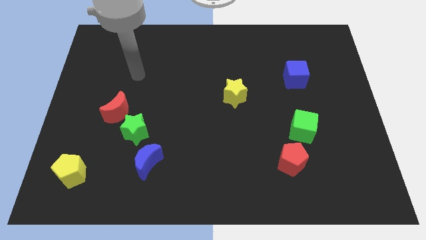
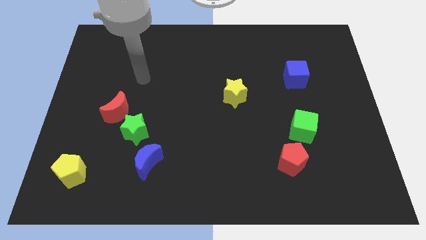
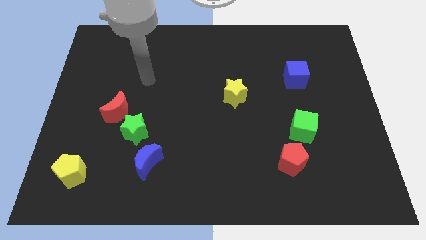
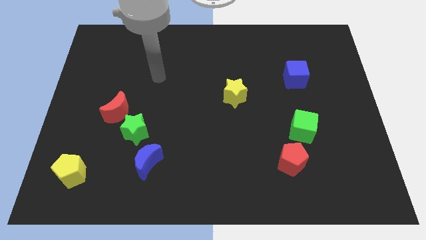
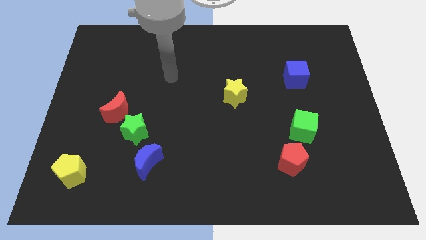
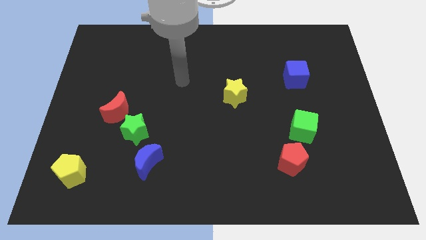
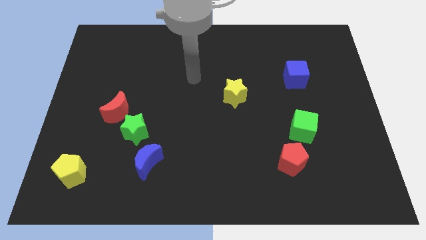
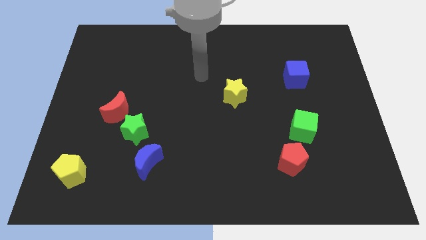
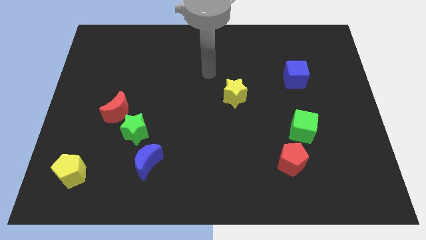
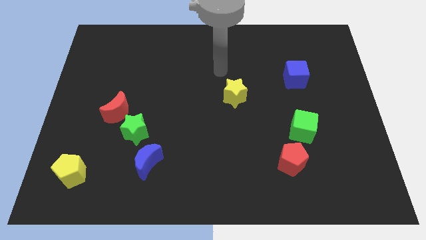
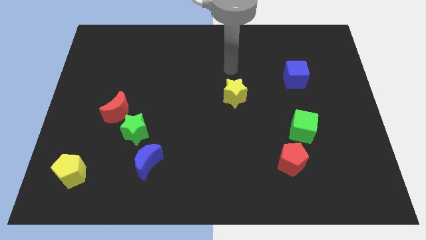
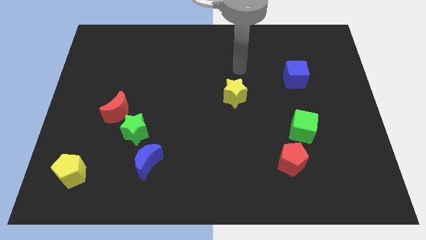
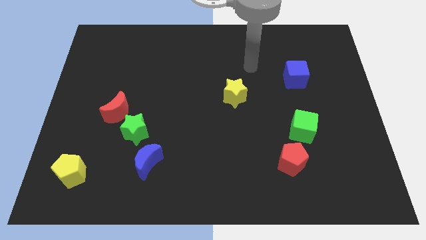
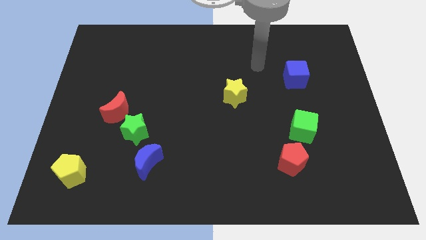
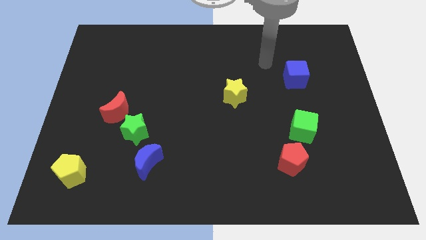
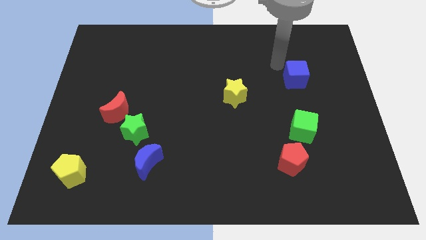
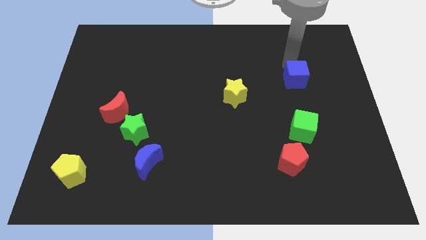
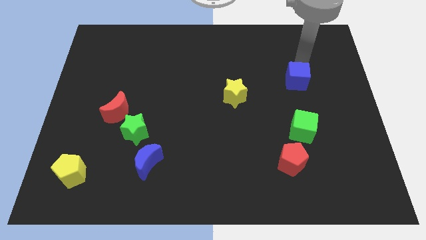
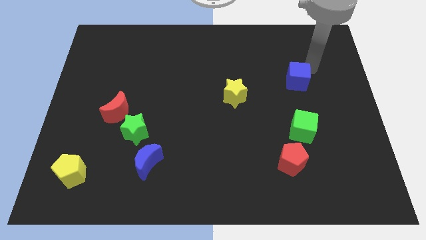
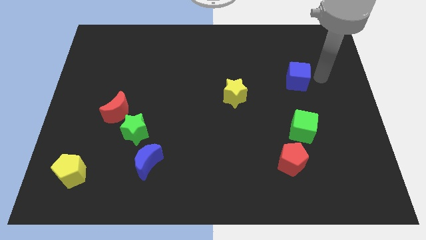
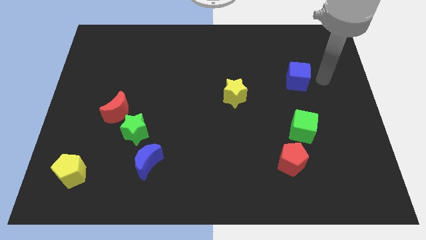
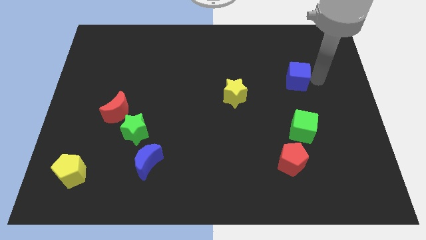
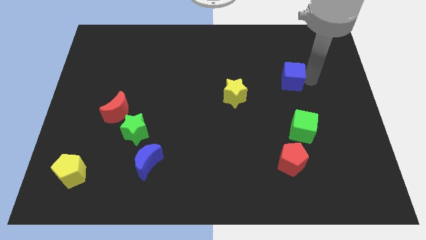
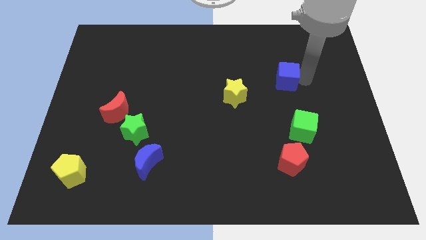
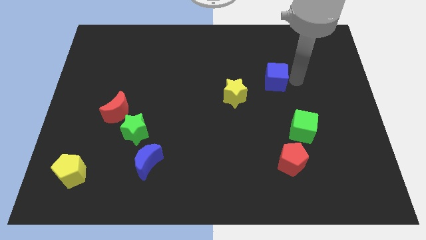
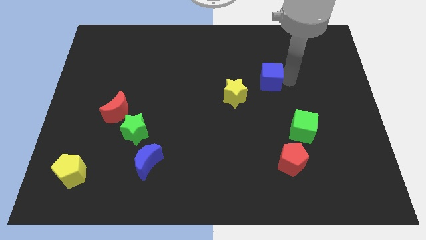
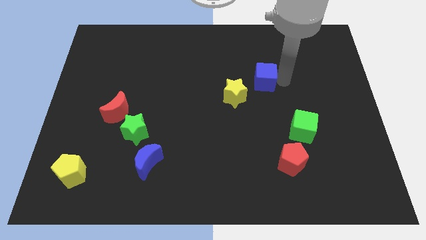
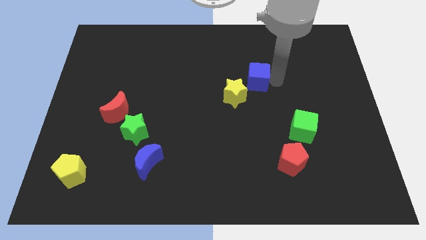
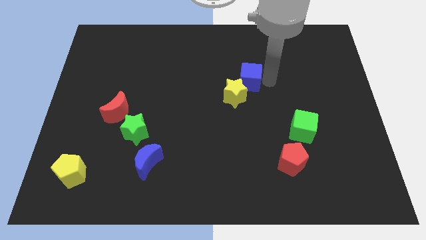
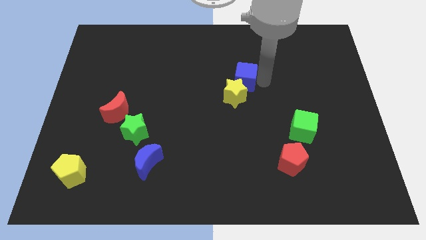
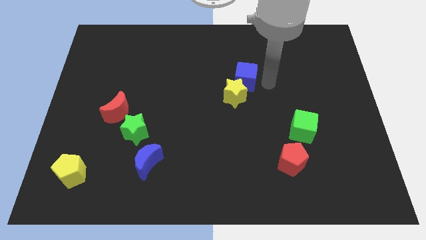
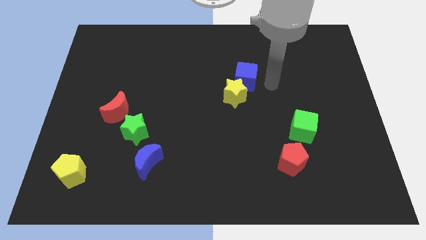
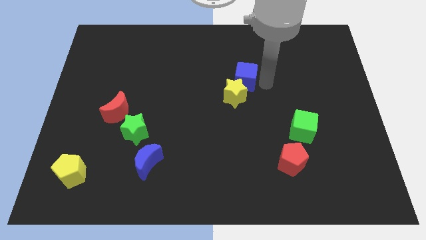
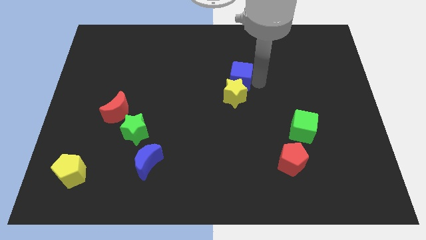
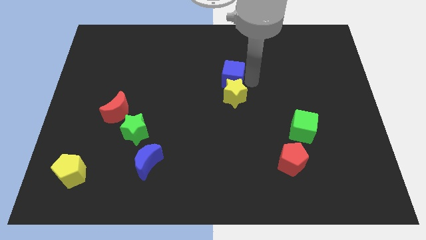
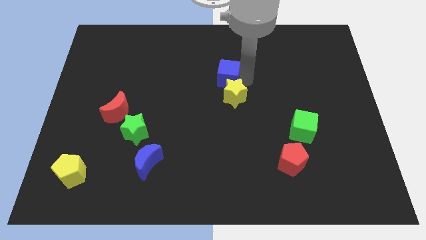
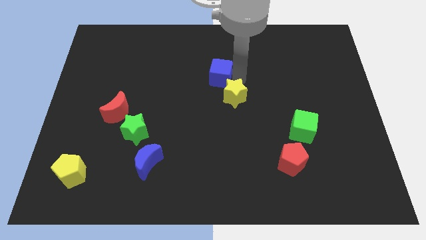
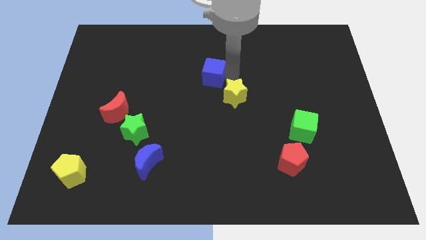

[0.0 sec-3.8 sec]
slide the blue cube left

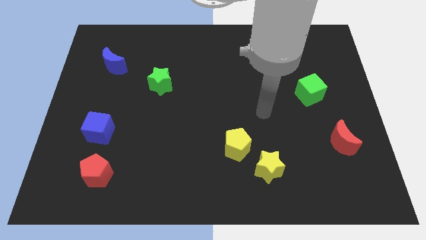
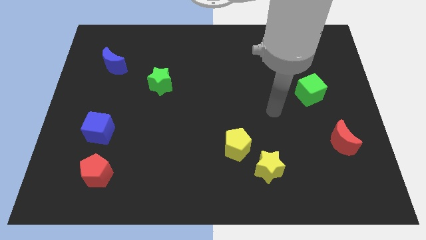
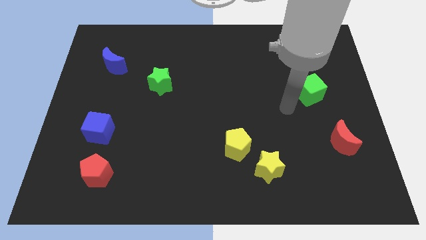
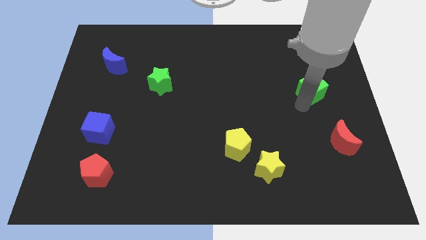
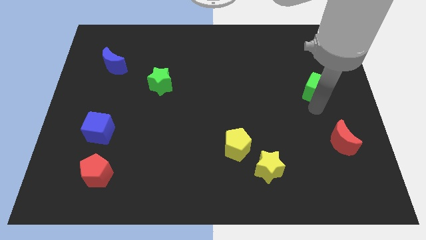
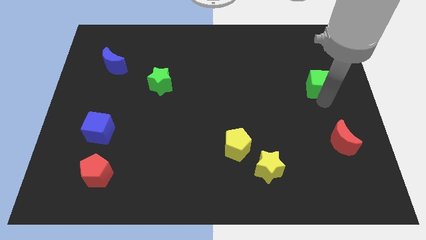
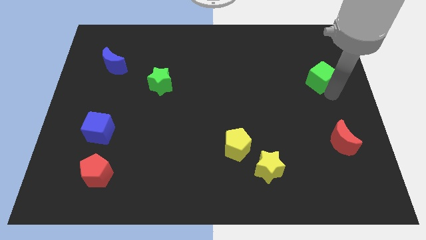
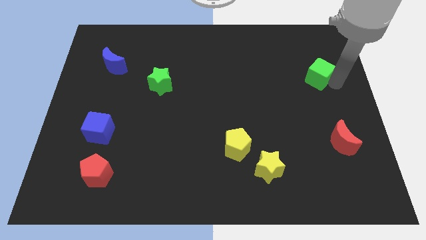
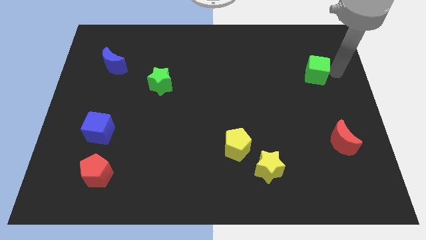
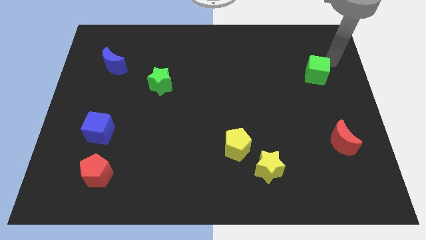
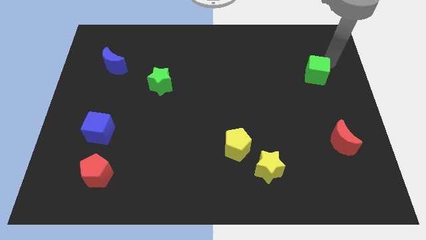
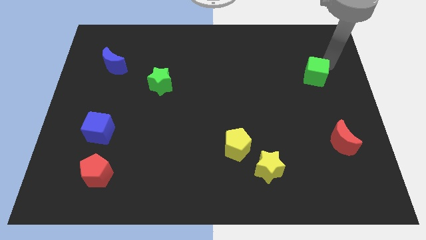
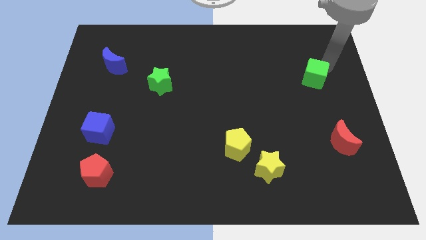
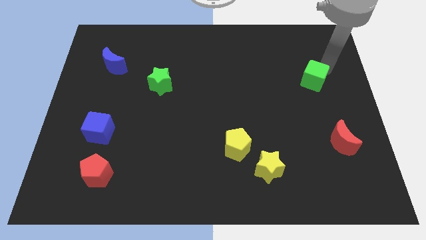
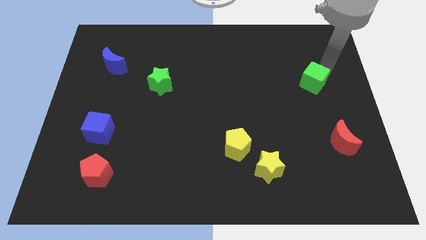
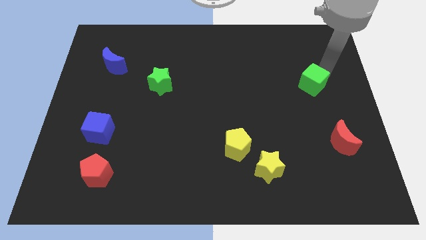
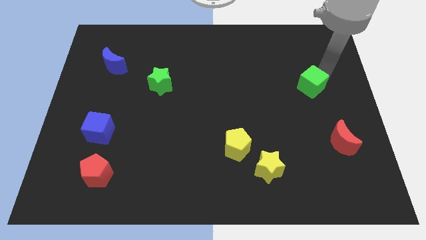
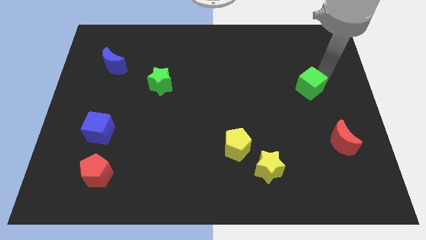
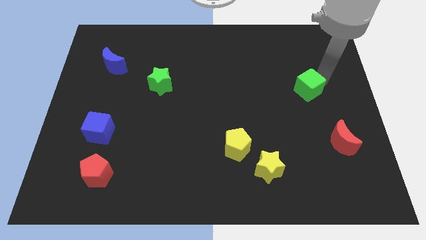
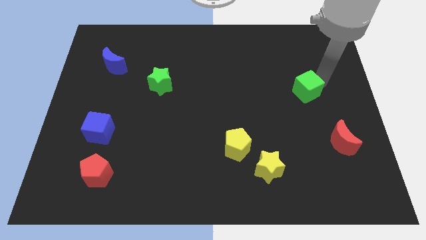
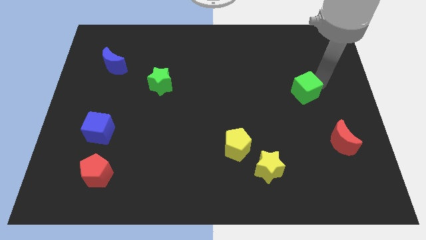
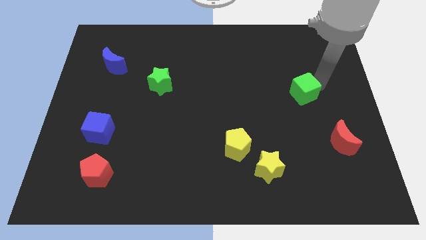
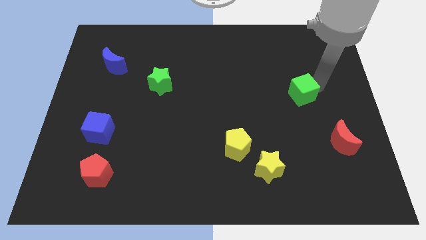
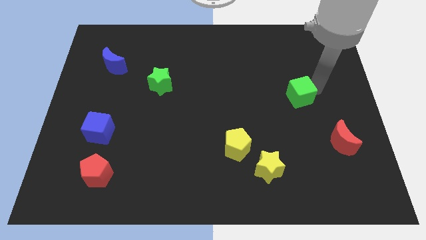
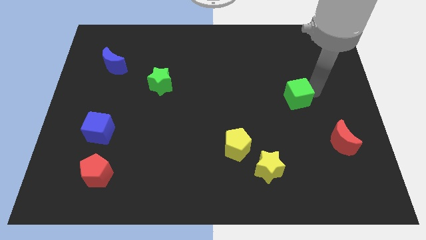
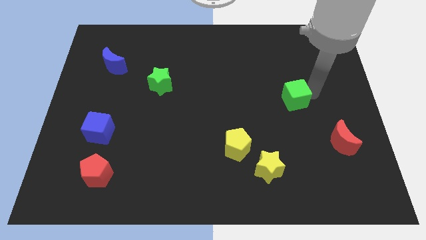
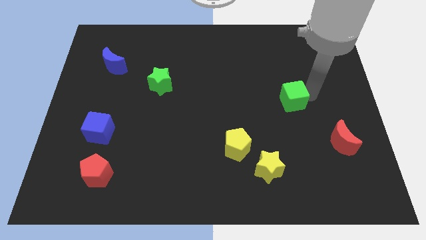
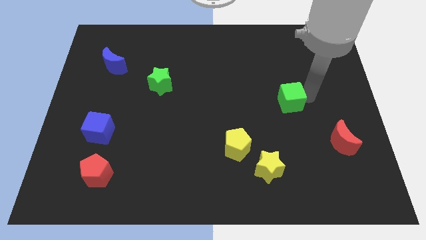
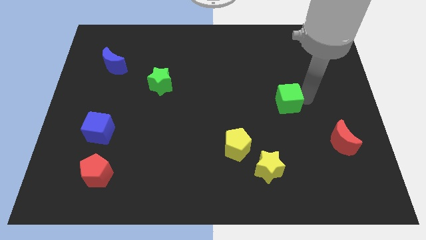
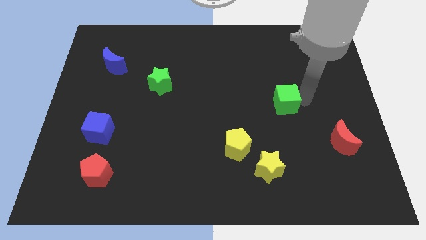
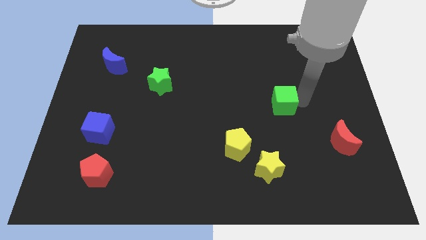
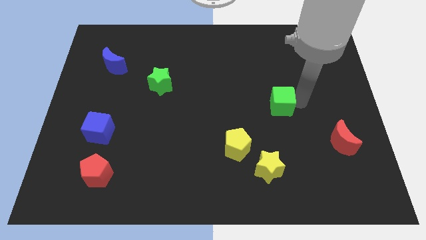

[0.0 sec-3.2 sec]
slightly move the green cube to the left

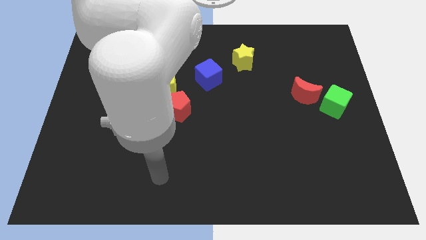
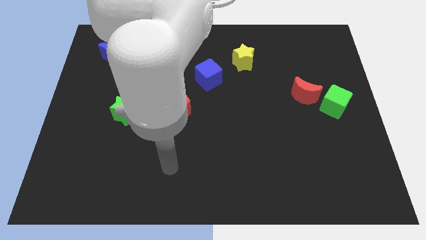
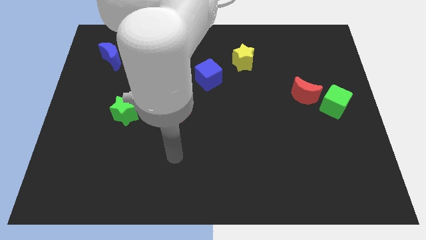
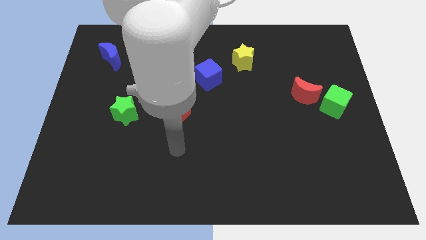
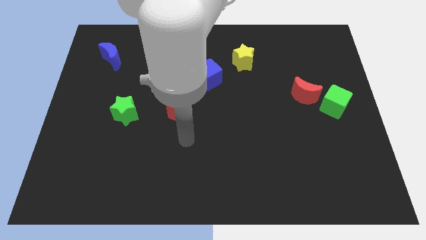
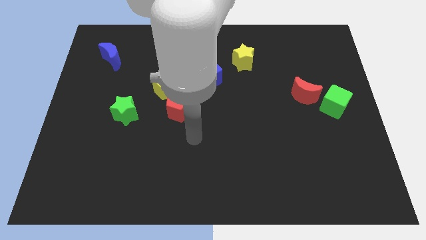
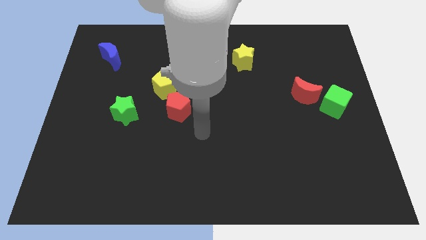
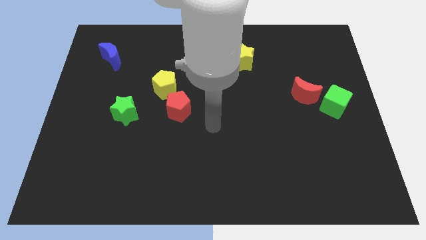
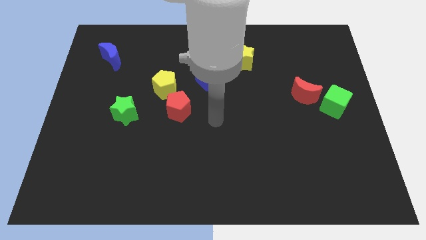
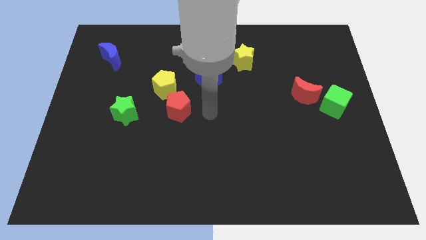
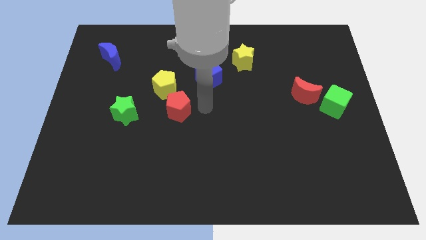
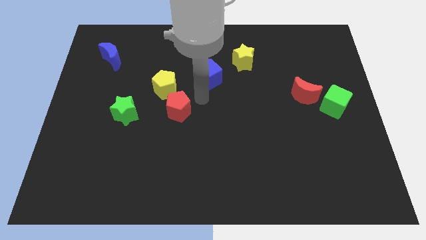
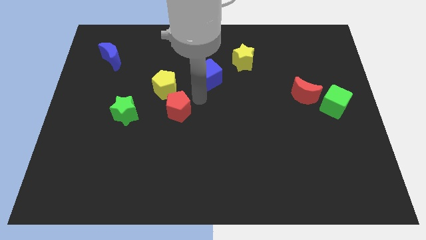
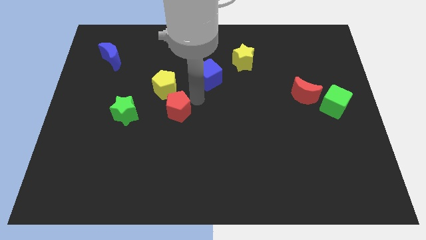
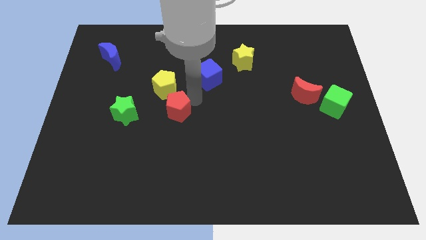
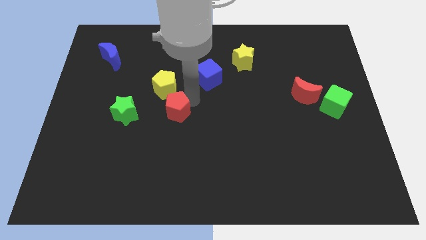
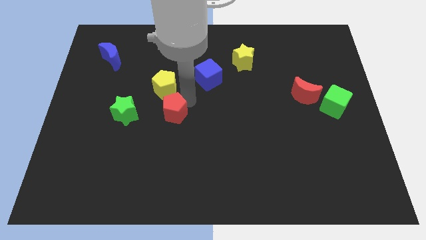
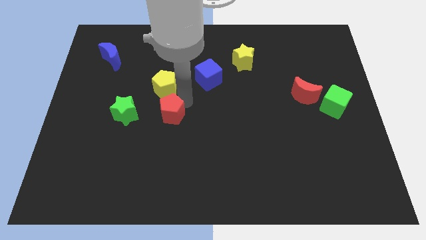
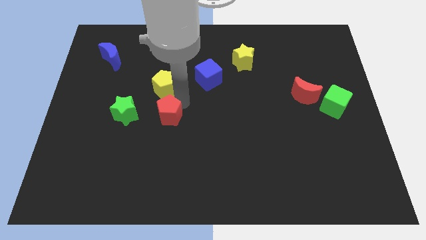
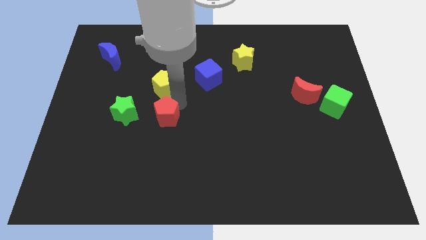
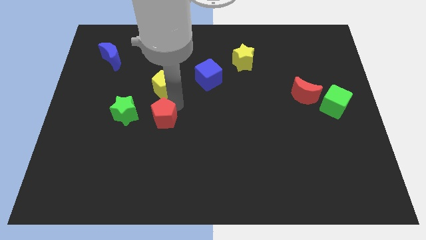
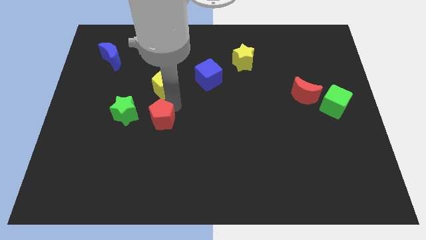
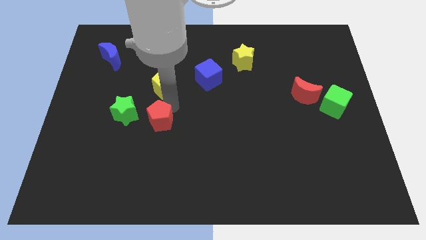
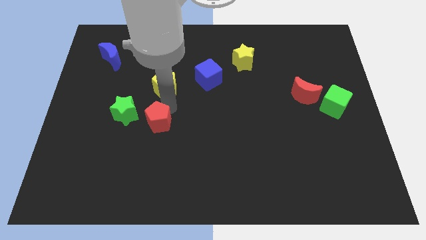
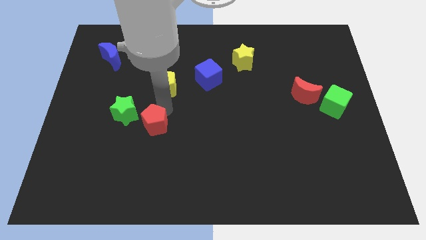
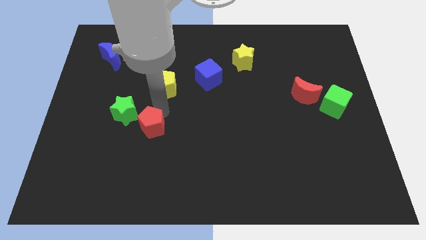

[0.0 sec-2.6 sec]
move the red pentagon a little down and to the left diagonally
